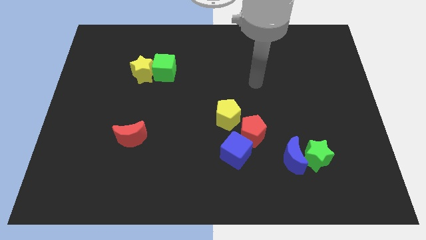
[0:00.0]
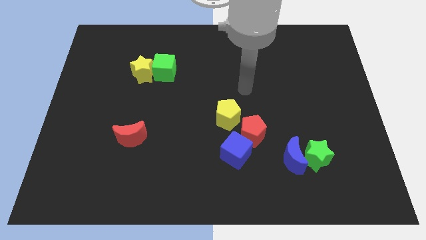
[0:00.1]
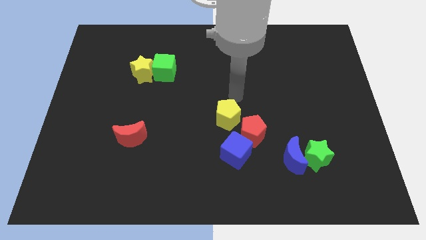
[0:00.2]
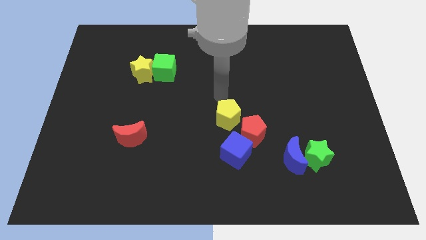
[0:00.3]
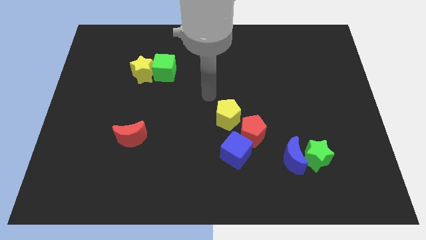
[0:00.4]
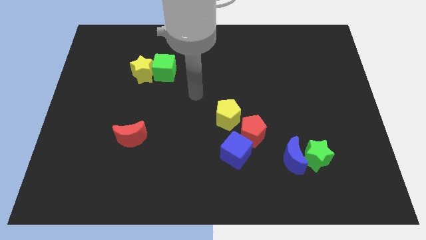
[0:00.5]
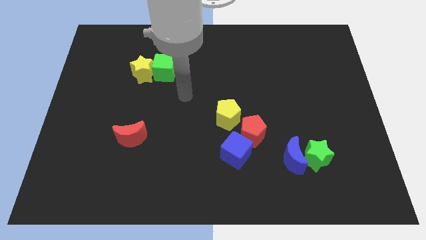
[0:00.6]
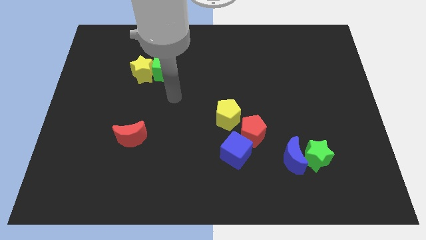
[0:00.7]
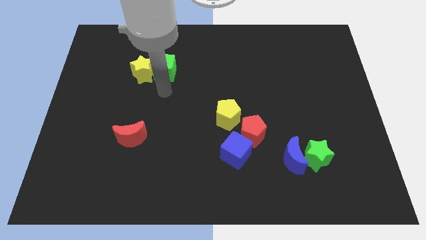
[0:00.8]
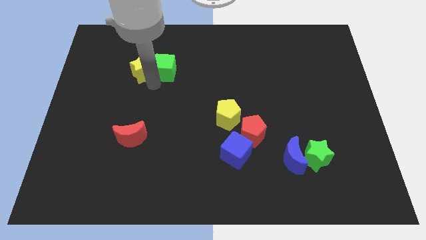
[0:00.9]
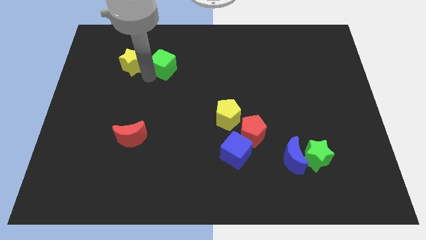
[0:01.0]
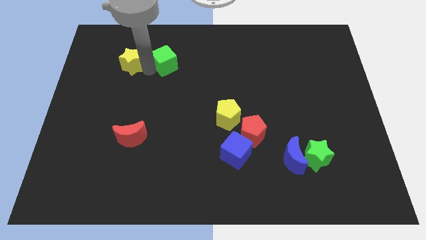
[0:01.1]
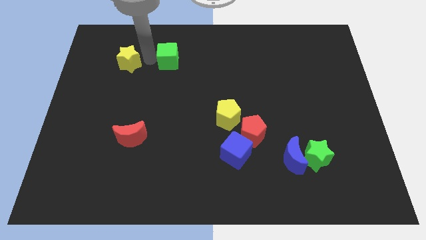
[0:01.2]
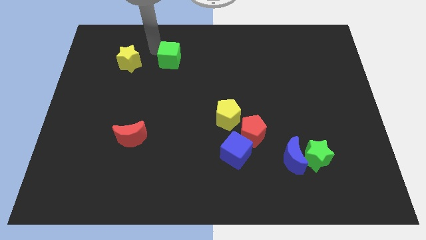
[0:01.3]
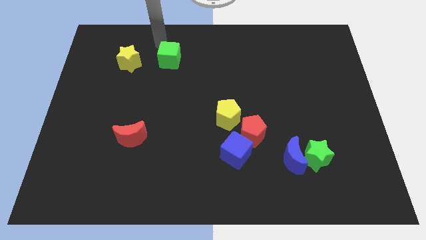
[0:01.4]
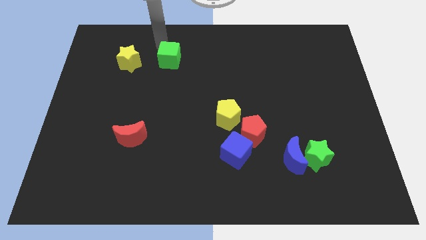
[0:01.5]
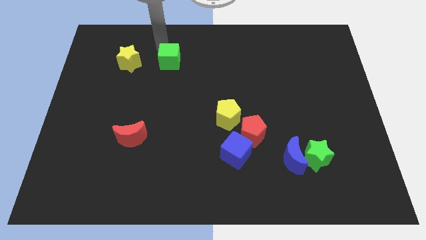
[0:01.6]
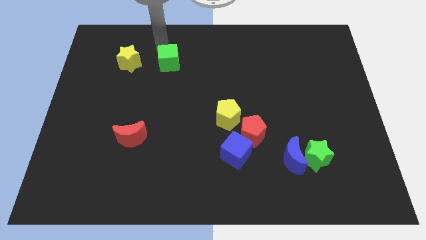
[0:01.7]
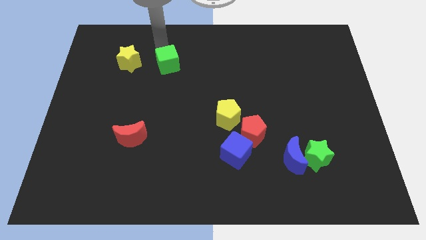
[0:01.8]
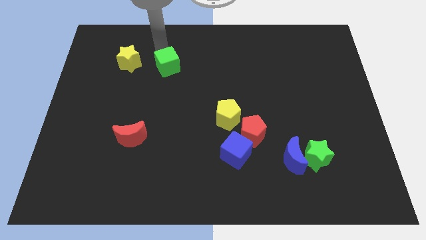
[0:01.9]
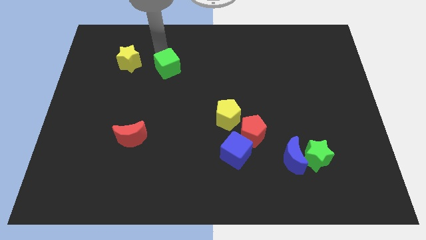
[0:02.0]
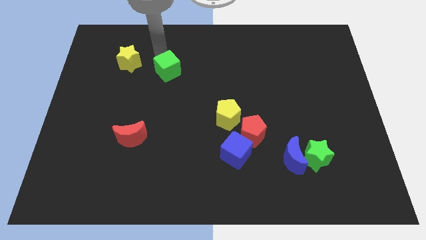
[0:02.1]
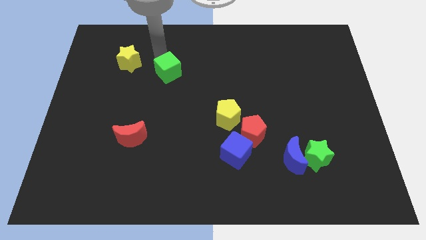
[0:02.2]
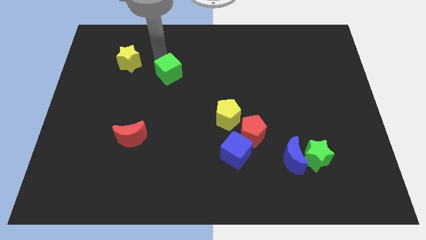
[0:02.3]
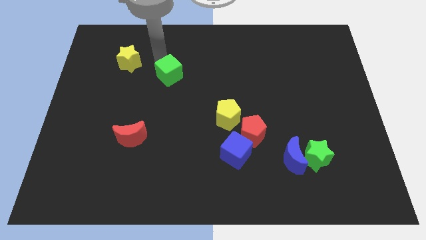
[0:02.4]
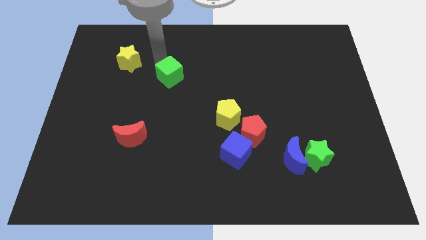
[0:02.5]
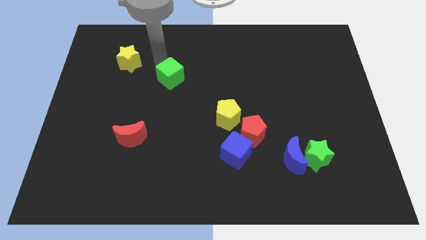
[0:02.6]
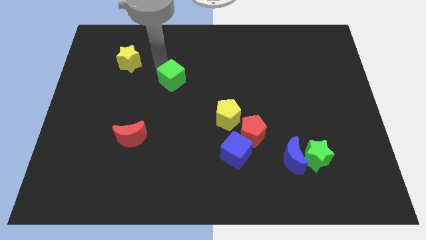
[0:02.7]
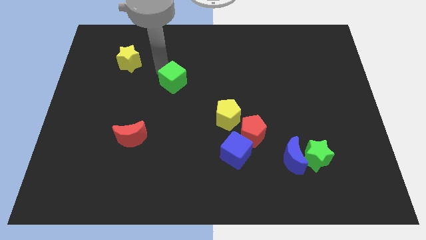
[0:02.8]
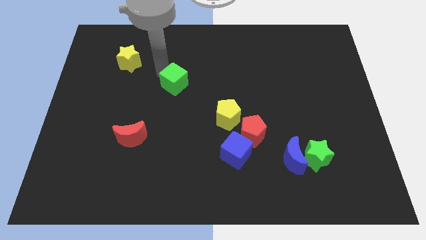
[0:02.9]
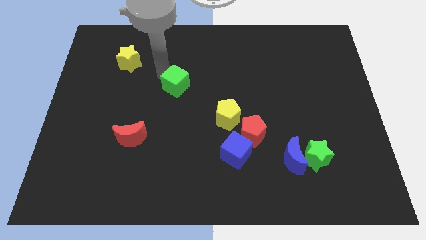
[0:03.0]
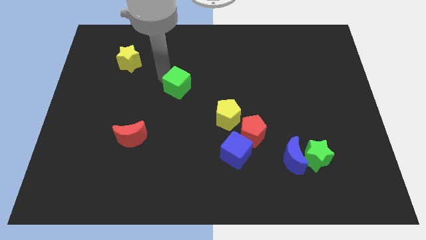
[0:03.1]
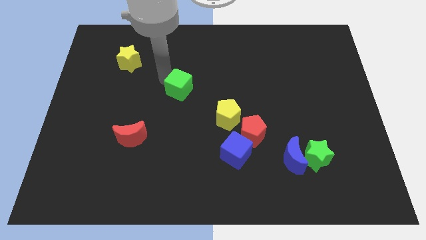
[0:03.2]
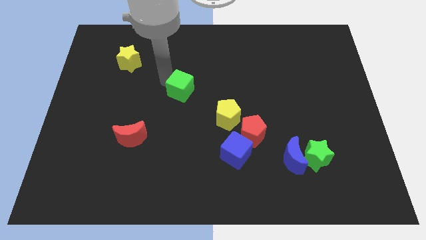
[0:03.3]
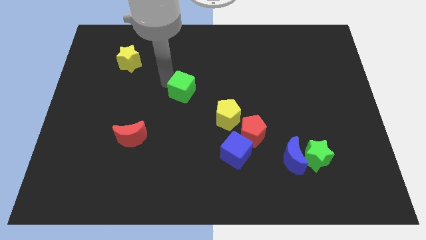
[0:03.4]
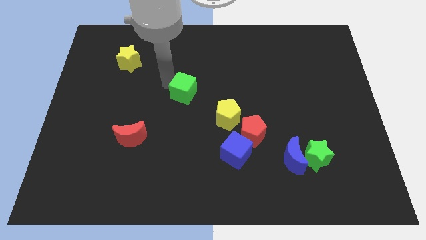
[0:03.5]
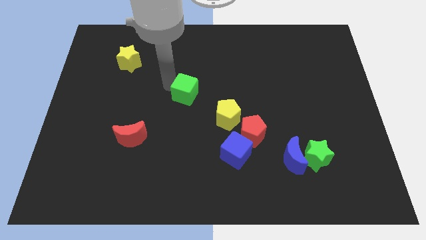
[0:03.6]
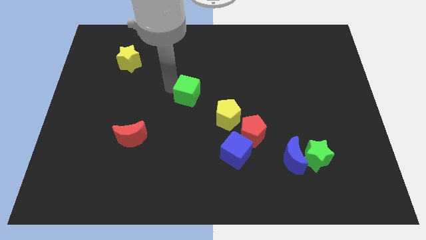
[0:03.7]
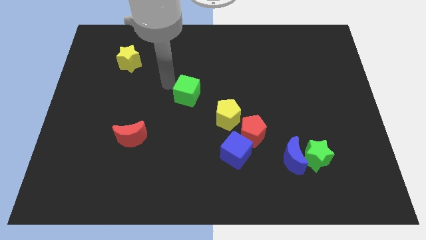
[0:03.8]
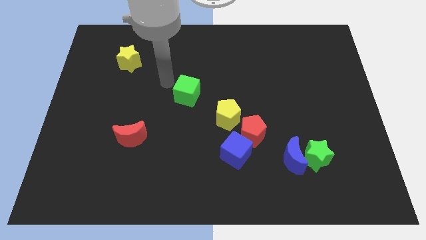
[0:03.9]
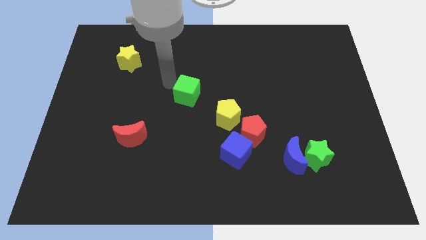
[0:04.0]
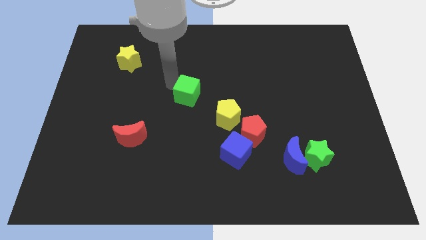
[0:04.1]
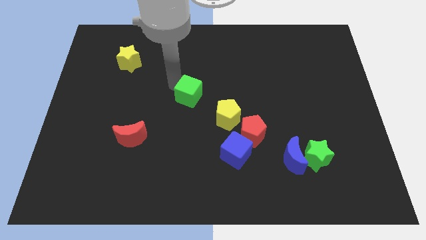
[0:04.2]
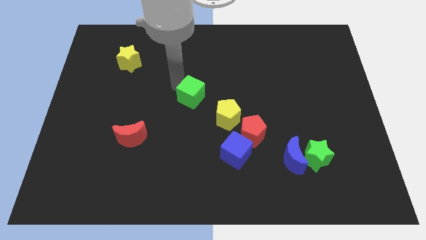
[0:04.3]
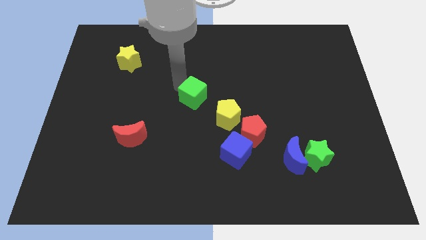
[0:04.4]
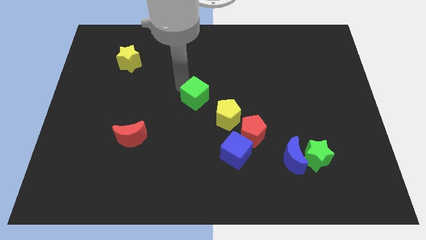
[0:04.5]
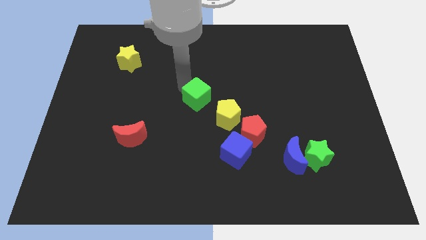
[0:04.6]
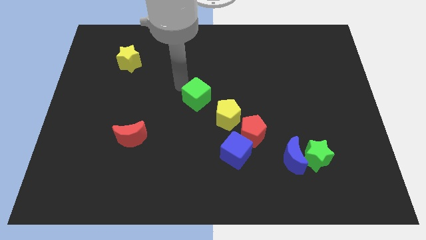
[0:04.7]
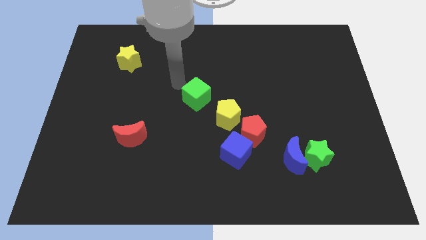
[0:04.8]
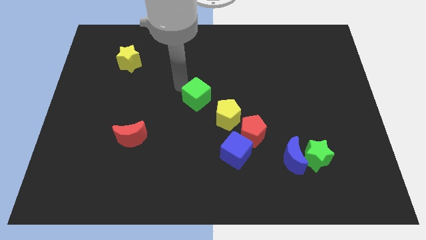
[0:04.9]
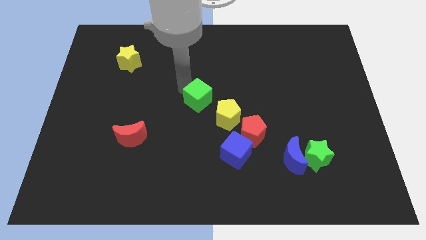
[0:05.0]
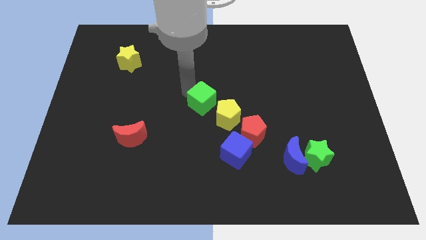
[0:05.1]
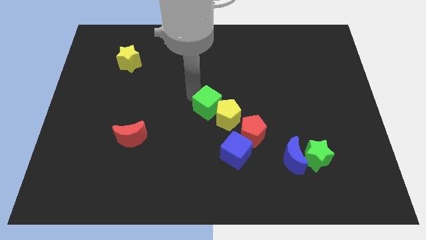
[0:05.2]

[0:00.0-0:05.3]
move the green cube to the yellow pentagon

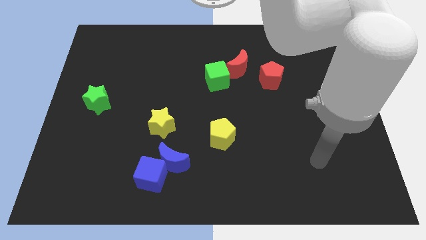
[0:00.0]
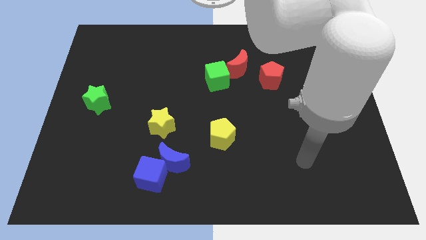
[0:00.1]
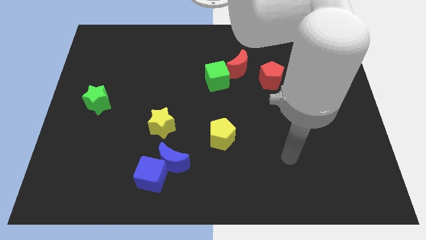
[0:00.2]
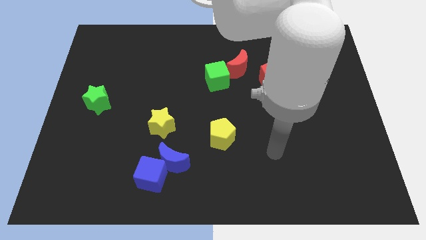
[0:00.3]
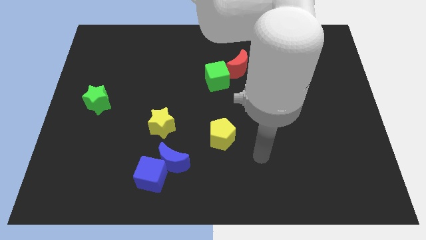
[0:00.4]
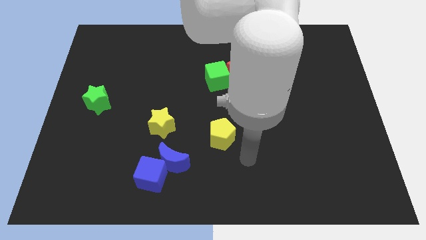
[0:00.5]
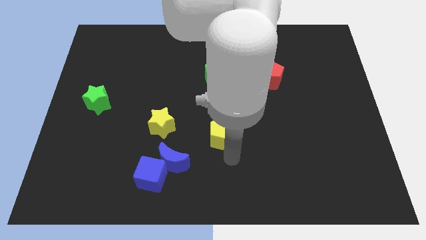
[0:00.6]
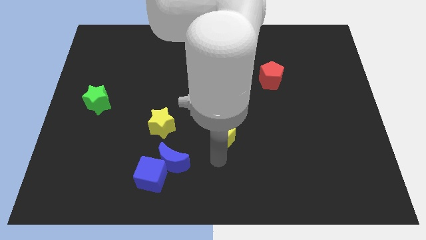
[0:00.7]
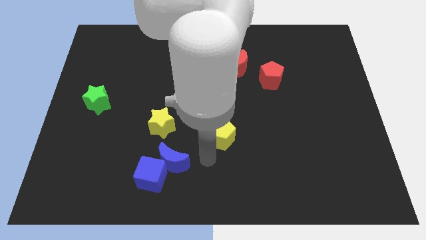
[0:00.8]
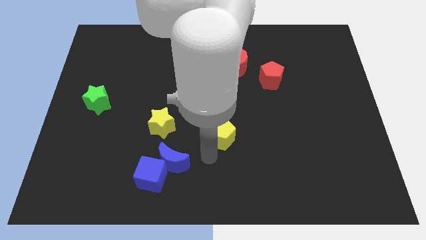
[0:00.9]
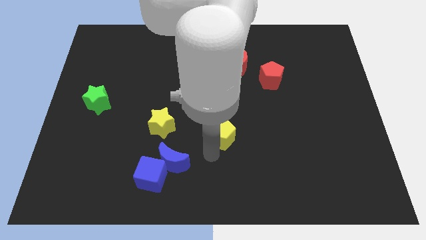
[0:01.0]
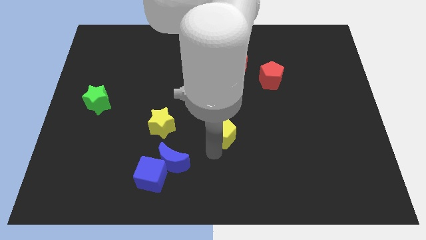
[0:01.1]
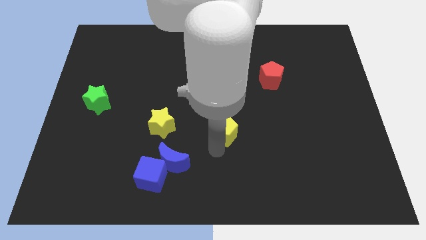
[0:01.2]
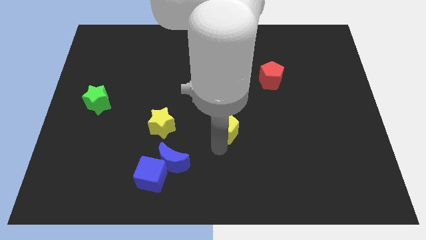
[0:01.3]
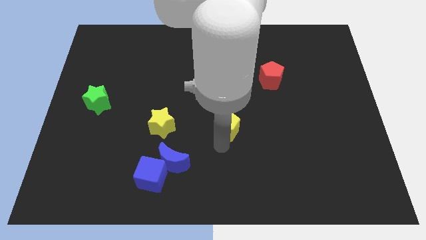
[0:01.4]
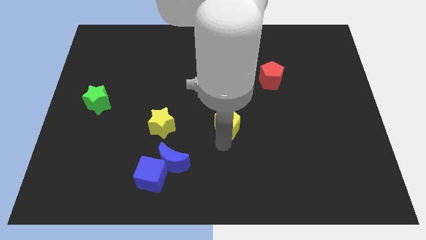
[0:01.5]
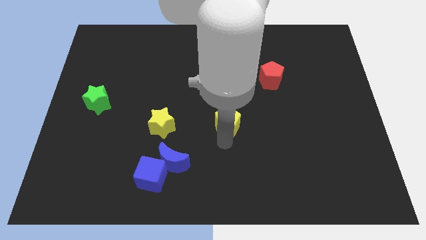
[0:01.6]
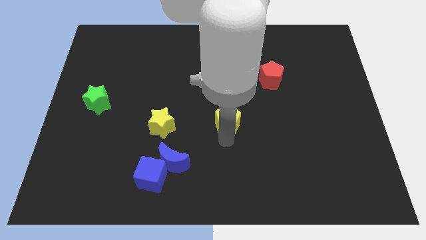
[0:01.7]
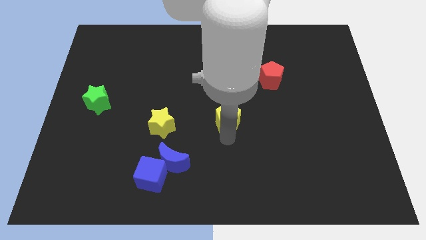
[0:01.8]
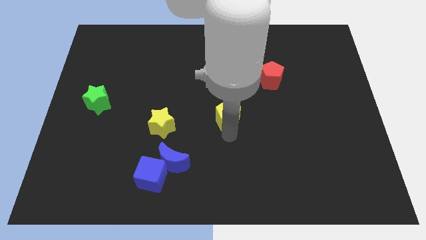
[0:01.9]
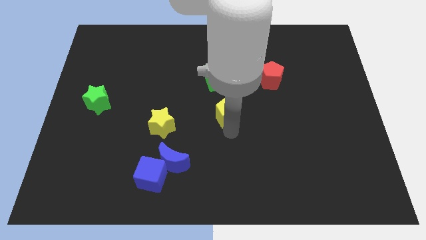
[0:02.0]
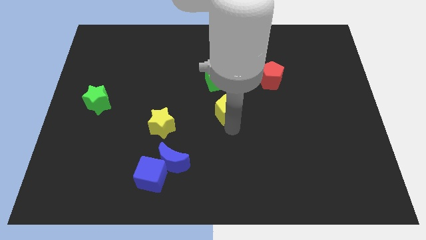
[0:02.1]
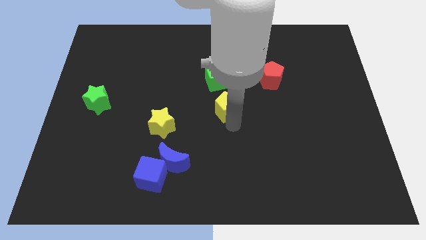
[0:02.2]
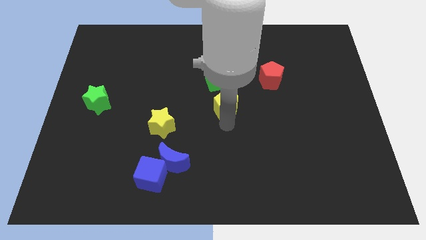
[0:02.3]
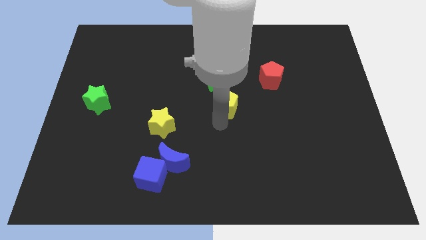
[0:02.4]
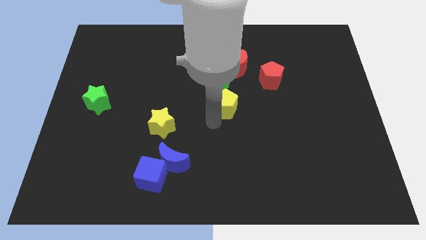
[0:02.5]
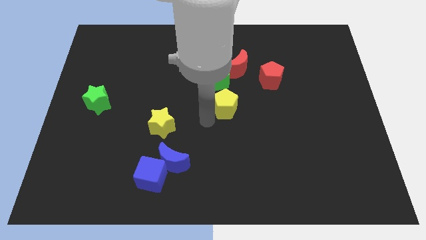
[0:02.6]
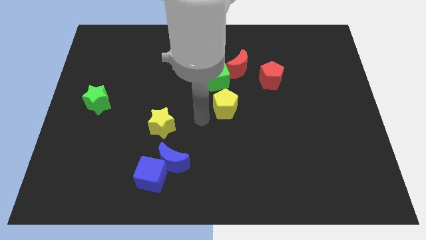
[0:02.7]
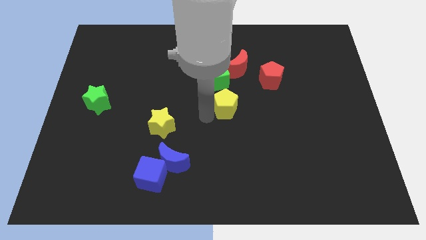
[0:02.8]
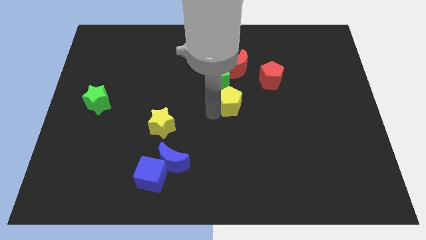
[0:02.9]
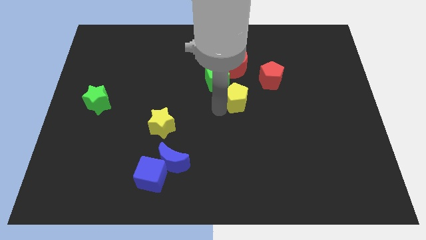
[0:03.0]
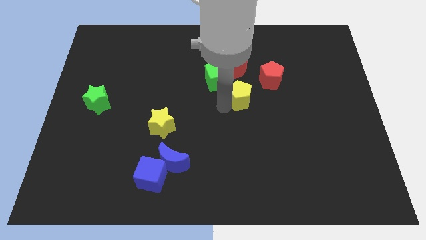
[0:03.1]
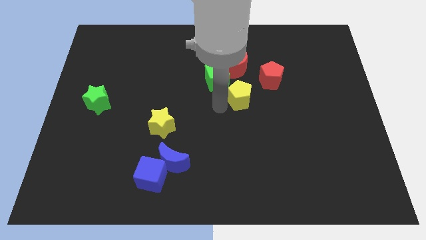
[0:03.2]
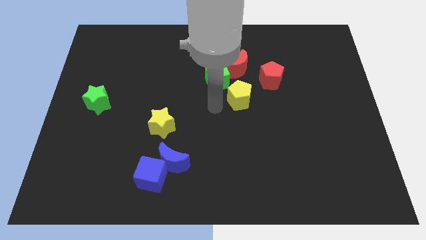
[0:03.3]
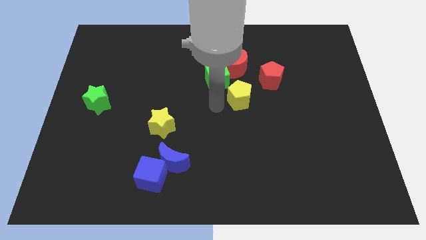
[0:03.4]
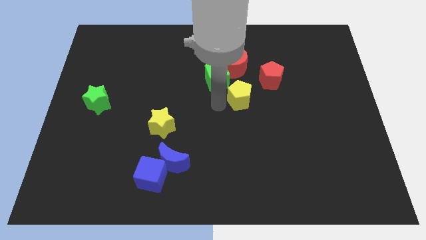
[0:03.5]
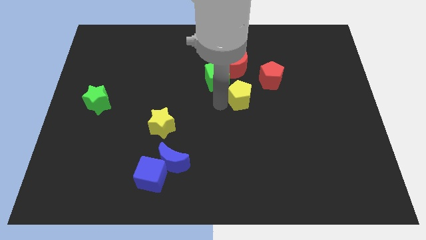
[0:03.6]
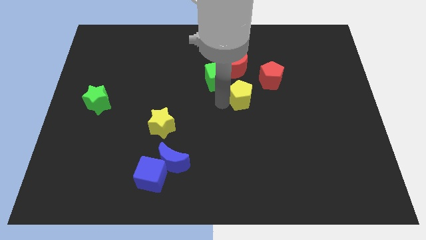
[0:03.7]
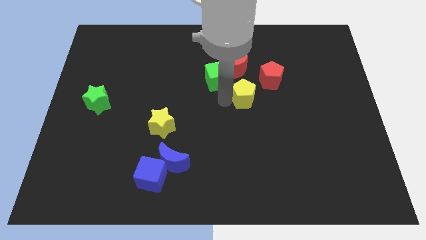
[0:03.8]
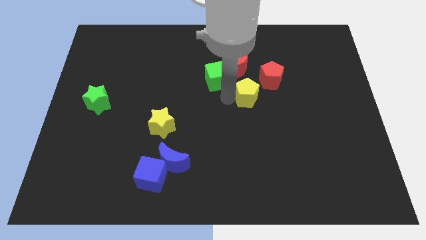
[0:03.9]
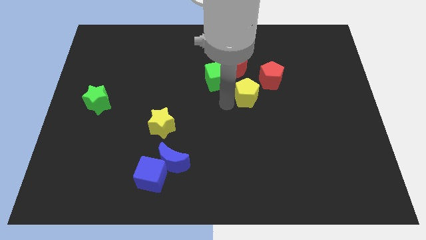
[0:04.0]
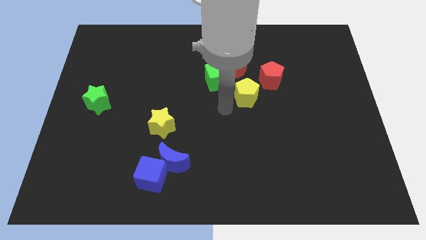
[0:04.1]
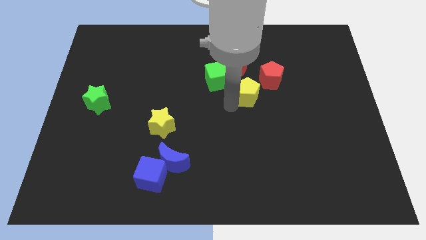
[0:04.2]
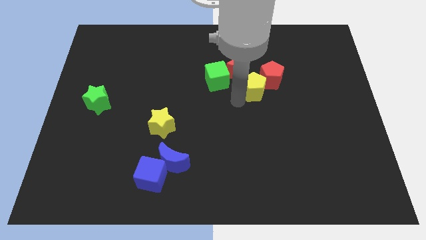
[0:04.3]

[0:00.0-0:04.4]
push the yellow pentagon towards the red pentagon
